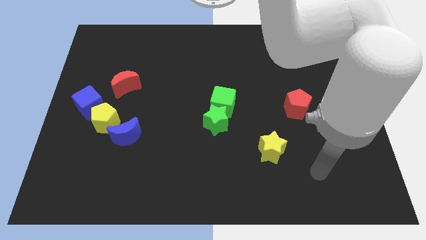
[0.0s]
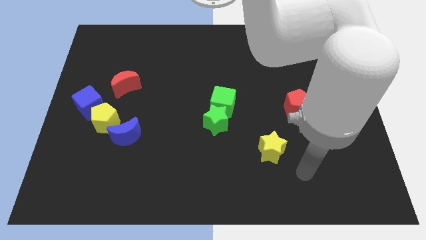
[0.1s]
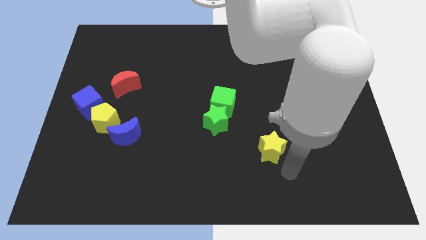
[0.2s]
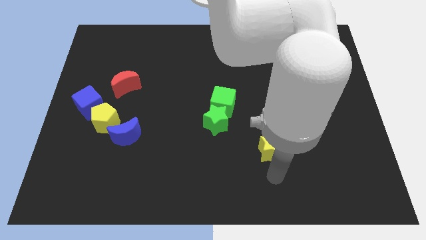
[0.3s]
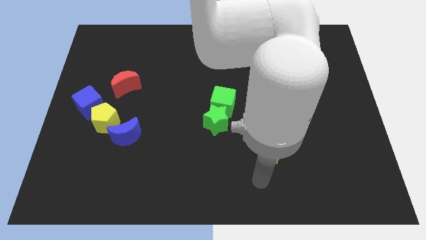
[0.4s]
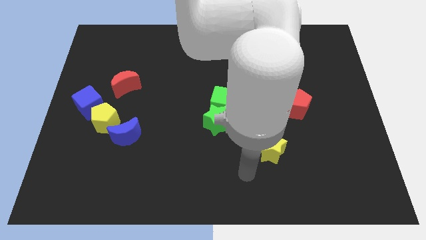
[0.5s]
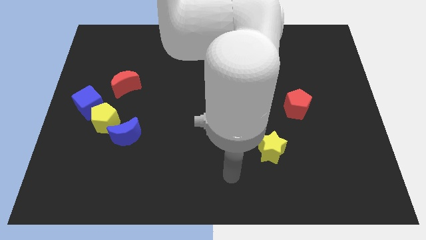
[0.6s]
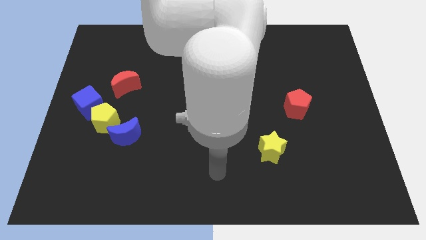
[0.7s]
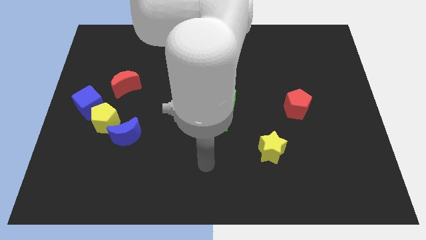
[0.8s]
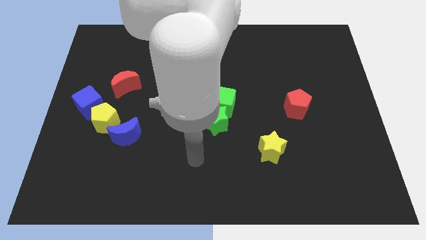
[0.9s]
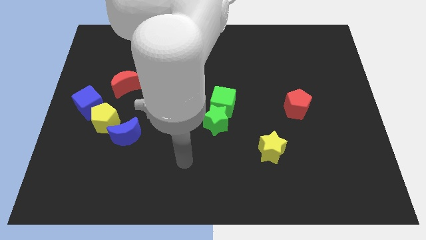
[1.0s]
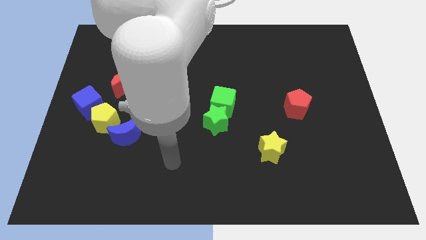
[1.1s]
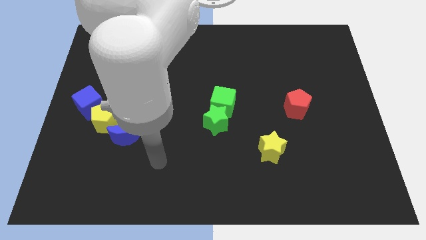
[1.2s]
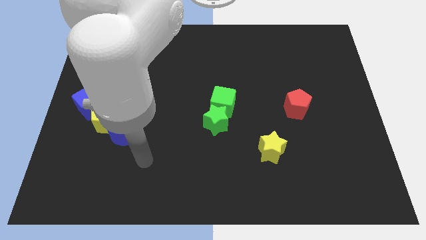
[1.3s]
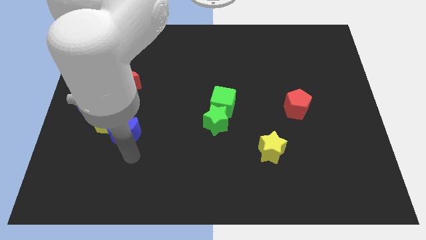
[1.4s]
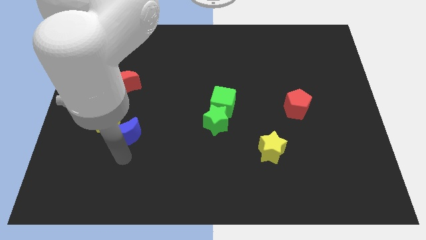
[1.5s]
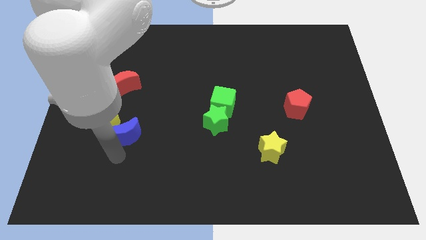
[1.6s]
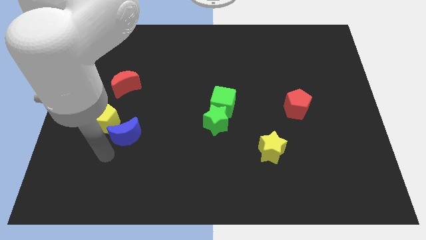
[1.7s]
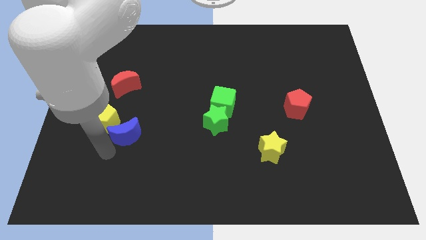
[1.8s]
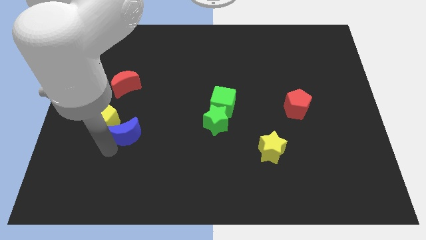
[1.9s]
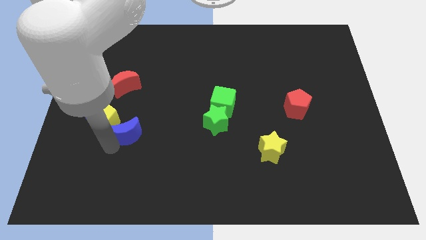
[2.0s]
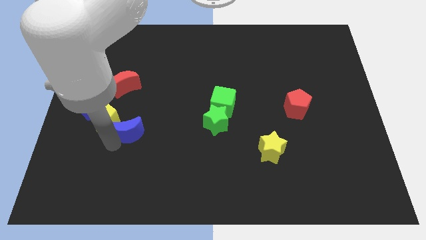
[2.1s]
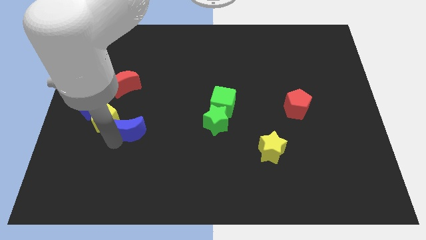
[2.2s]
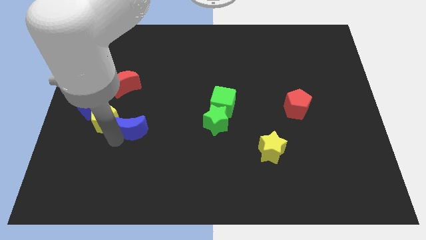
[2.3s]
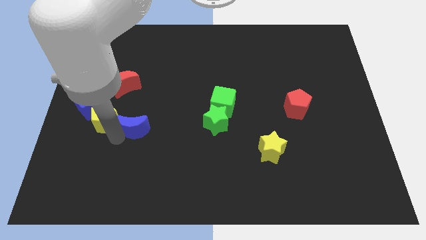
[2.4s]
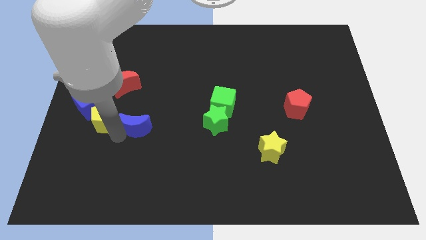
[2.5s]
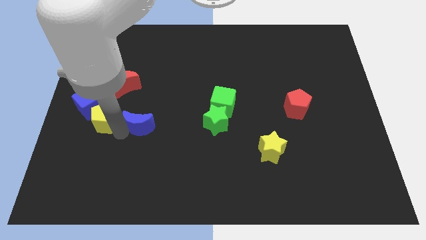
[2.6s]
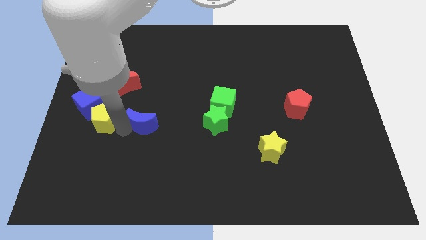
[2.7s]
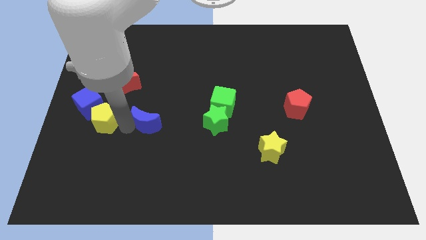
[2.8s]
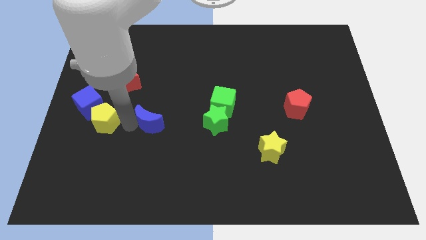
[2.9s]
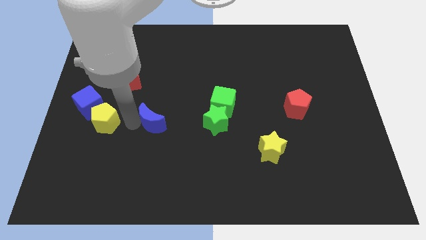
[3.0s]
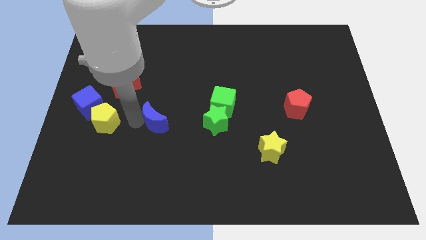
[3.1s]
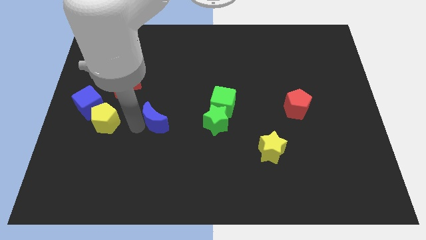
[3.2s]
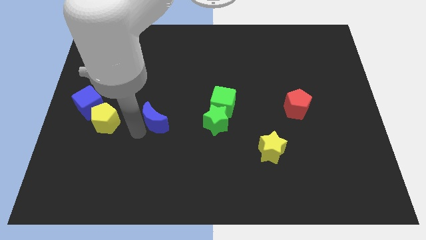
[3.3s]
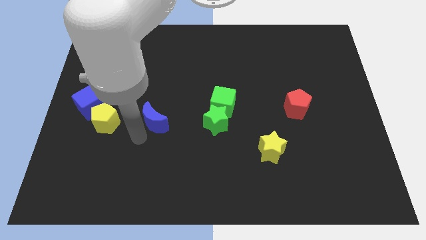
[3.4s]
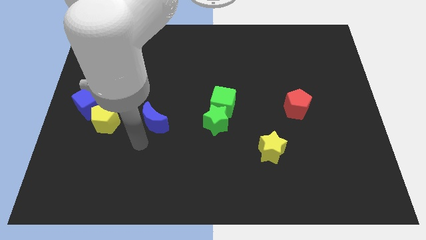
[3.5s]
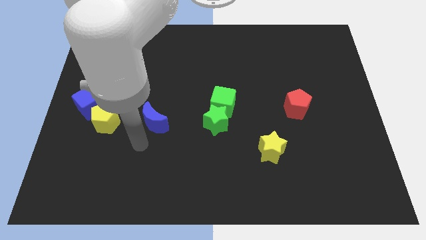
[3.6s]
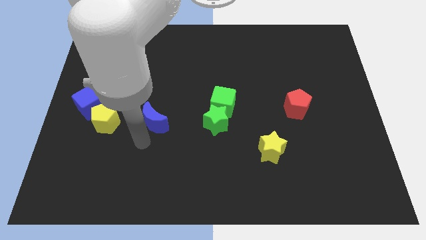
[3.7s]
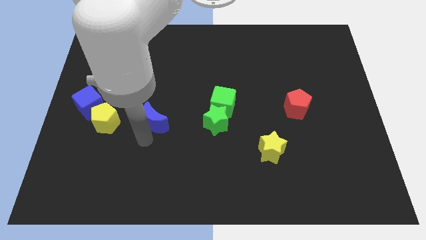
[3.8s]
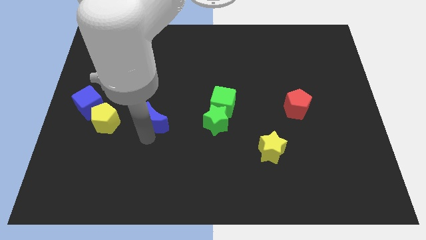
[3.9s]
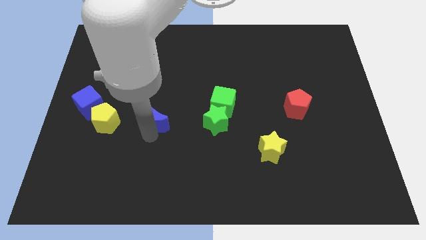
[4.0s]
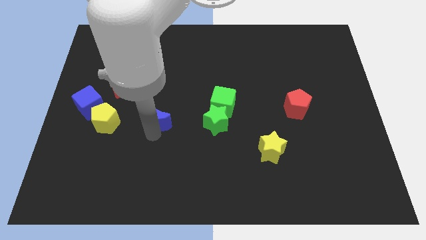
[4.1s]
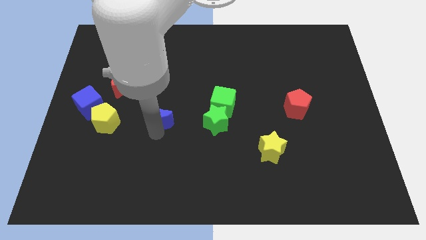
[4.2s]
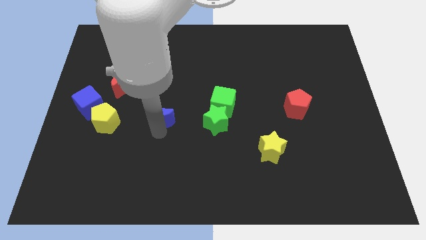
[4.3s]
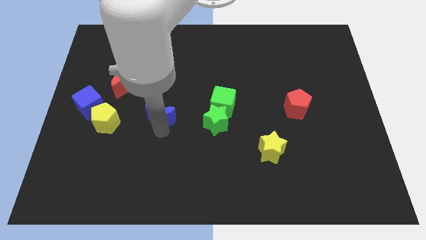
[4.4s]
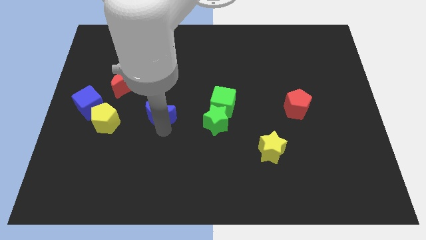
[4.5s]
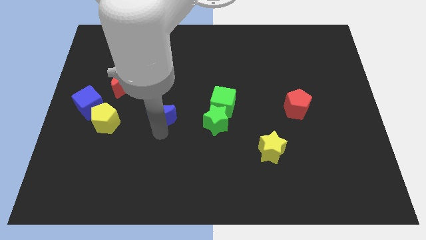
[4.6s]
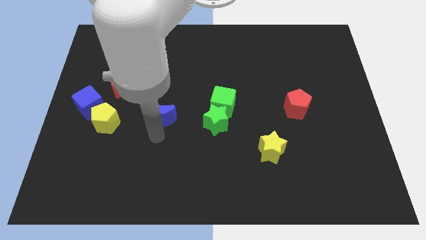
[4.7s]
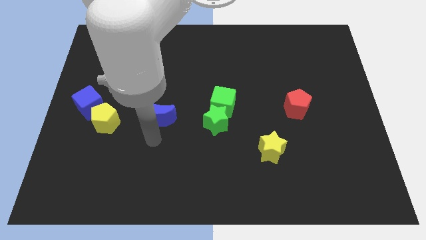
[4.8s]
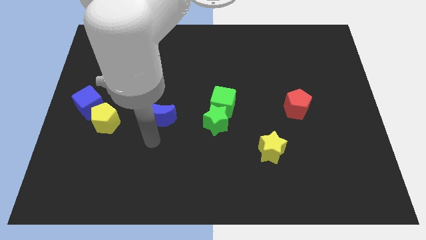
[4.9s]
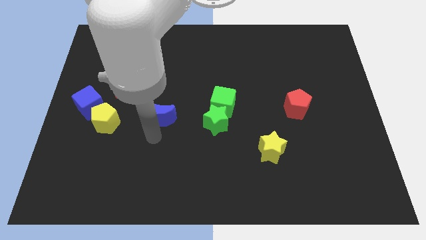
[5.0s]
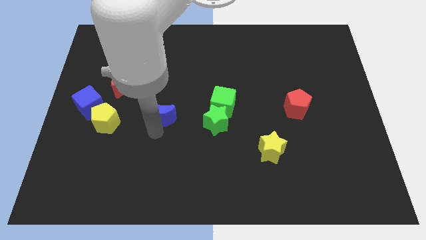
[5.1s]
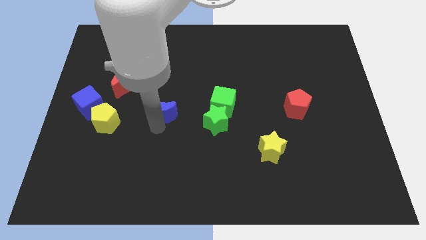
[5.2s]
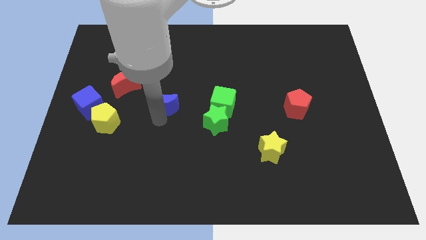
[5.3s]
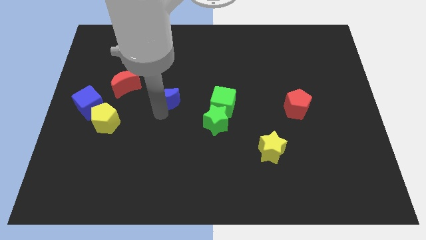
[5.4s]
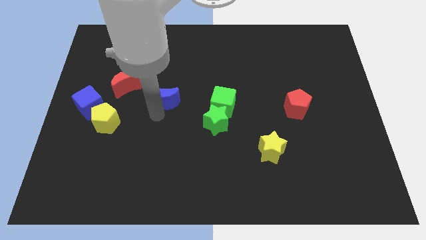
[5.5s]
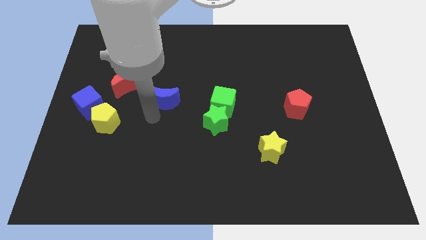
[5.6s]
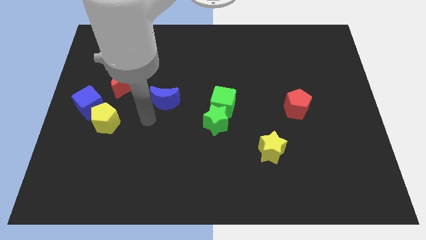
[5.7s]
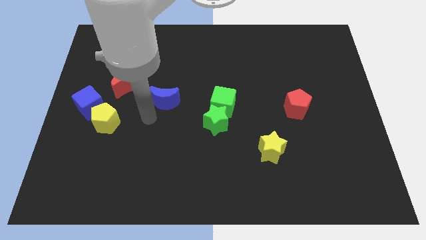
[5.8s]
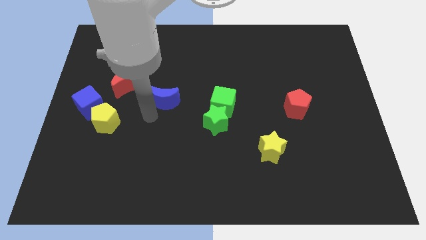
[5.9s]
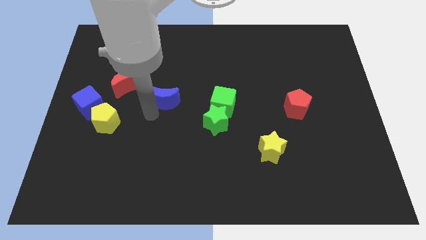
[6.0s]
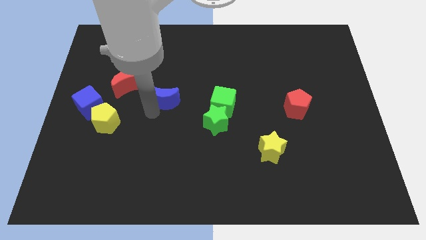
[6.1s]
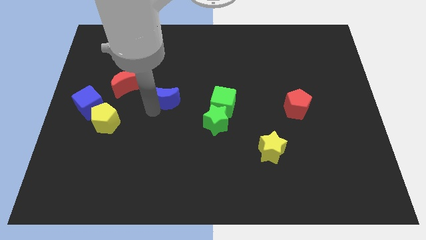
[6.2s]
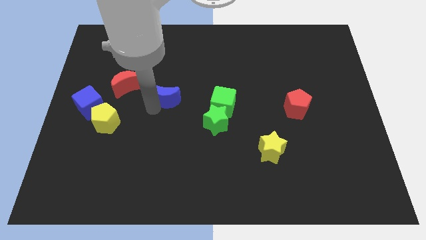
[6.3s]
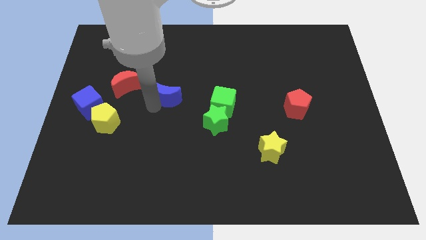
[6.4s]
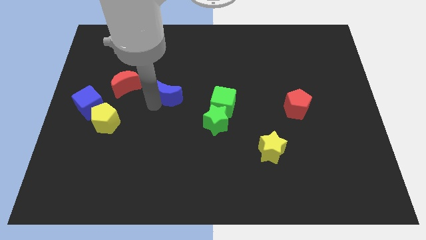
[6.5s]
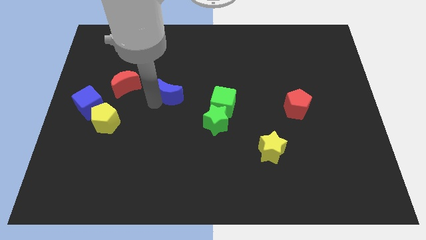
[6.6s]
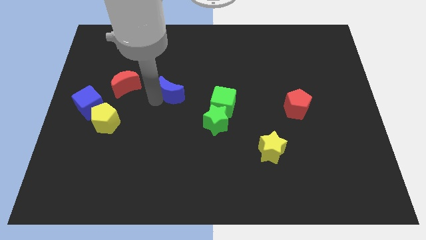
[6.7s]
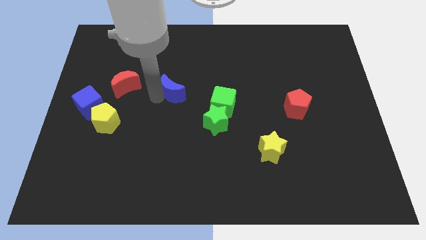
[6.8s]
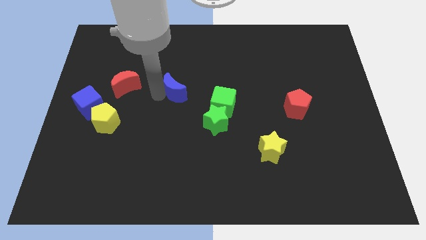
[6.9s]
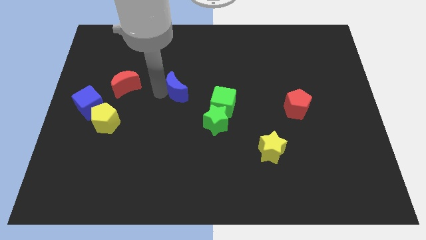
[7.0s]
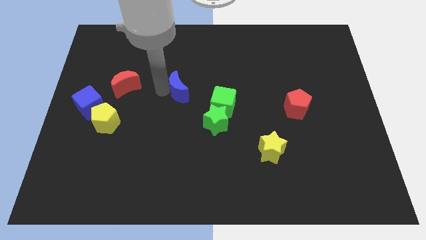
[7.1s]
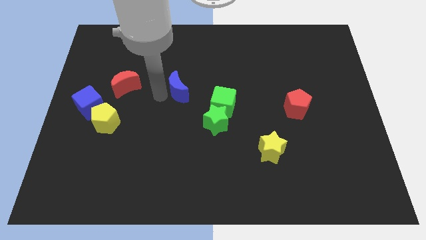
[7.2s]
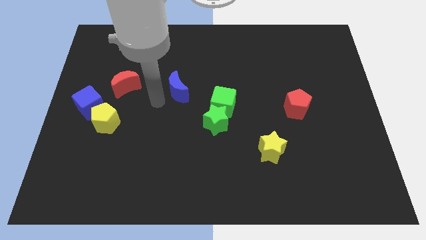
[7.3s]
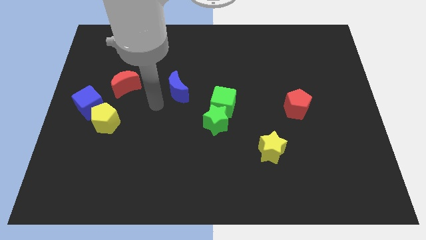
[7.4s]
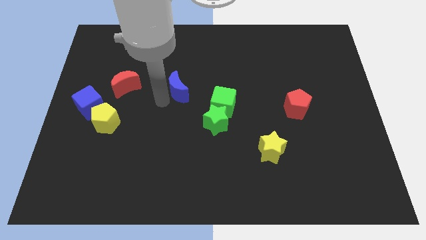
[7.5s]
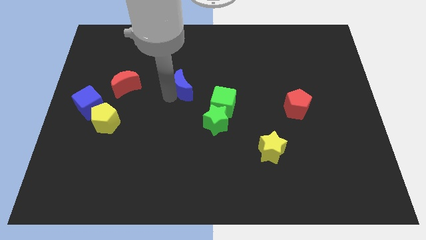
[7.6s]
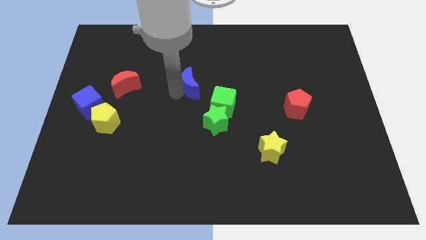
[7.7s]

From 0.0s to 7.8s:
slide the blue moon upwards and then to the right
